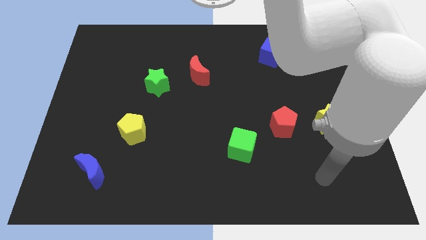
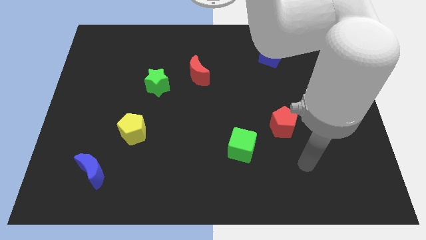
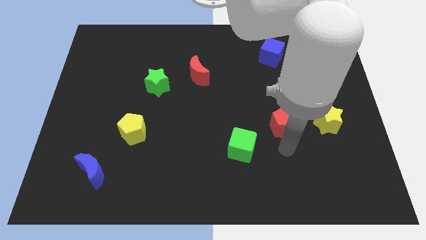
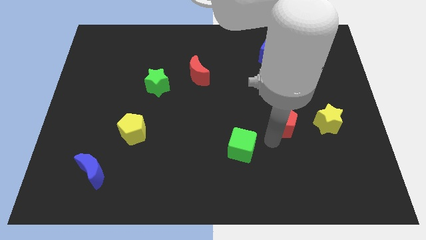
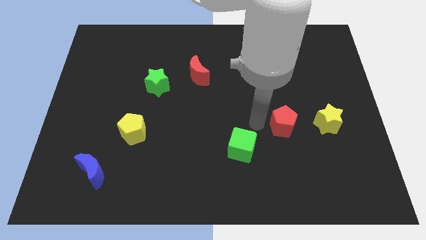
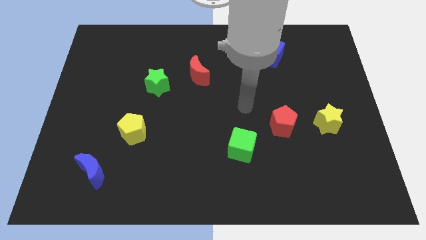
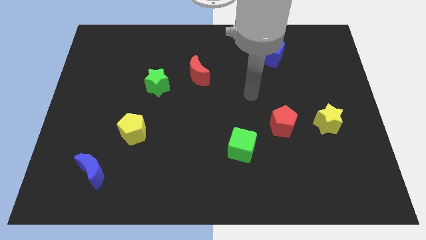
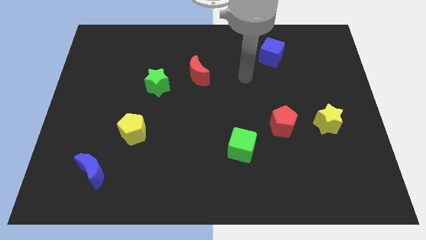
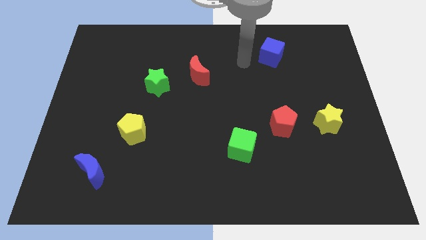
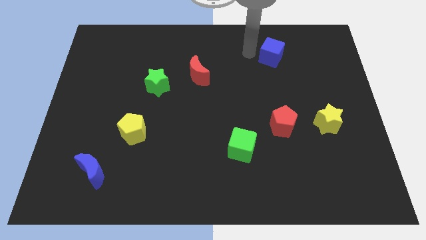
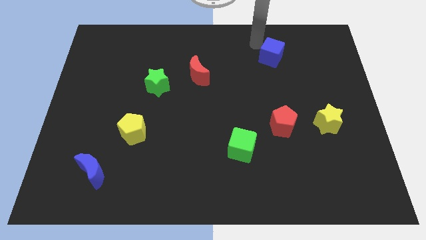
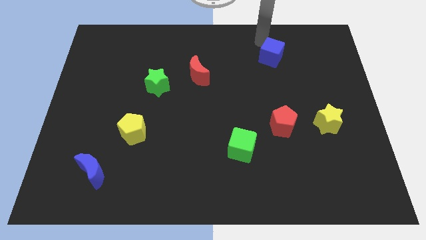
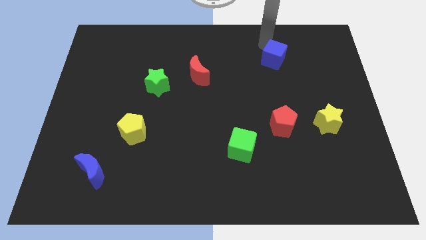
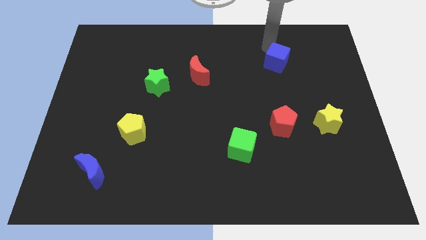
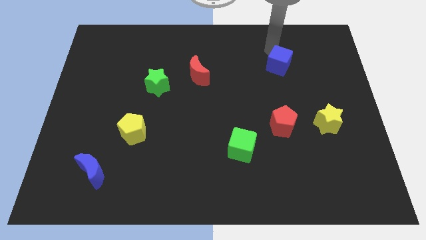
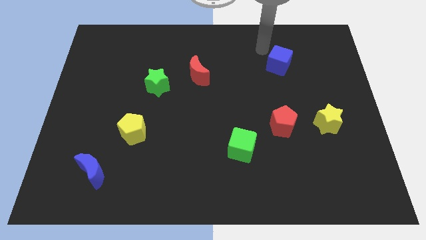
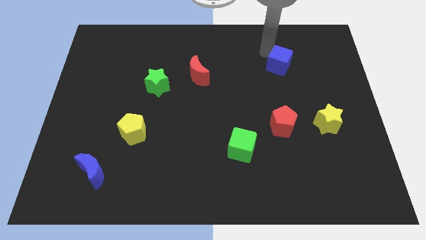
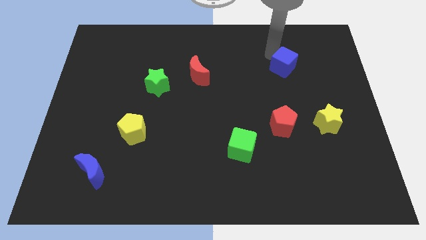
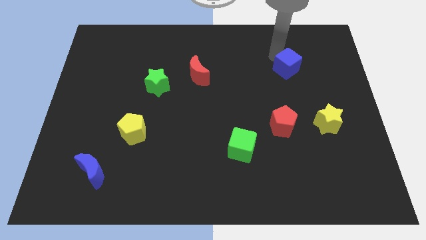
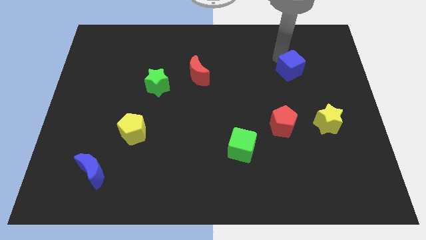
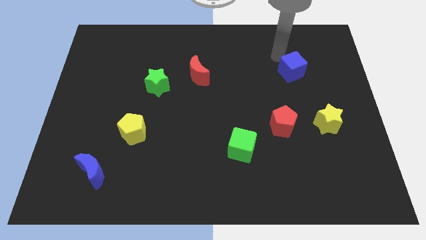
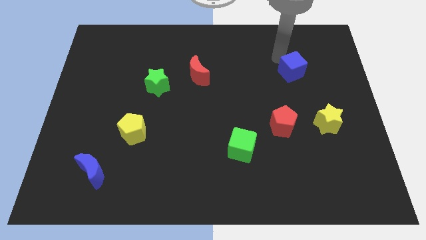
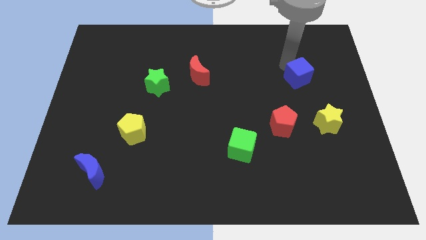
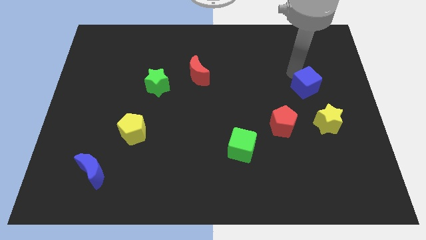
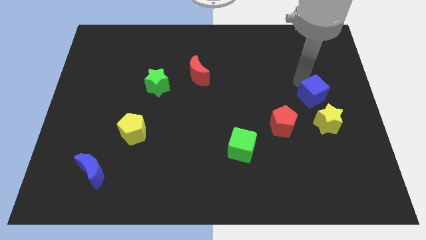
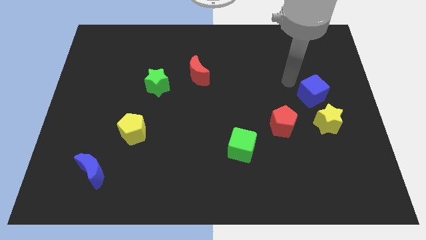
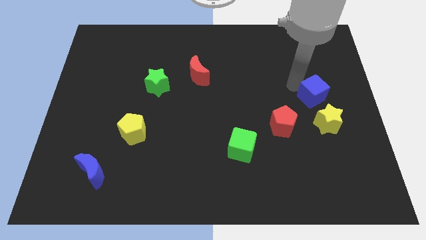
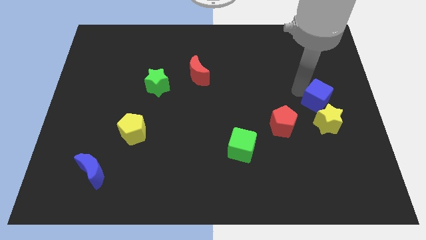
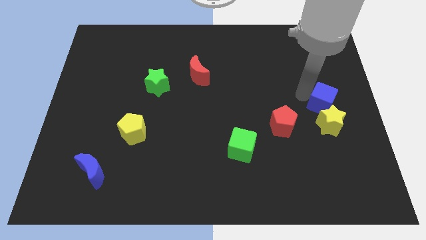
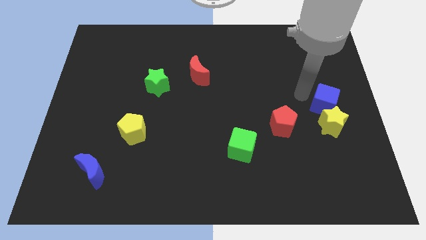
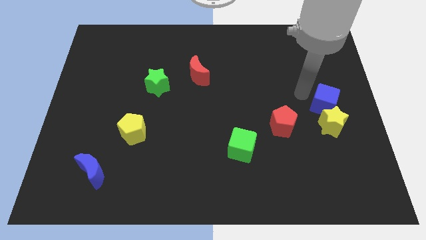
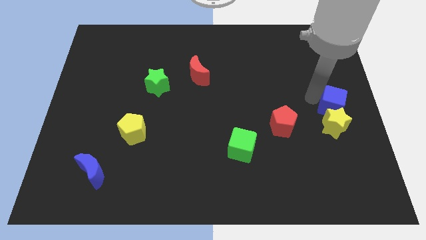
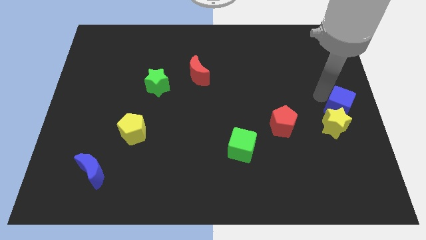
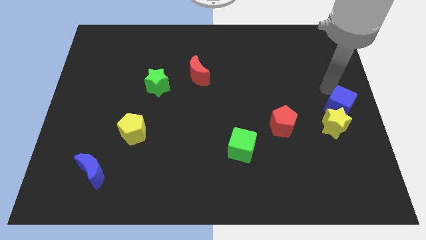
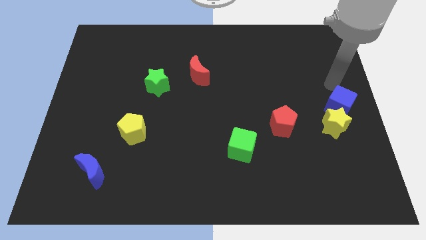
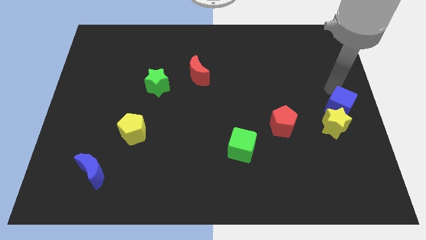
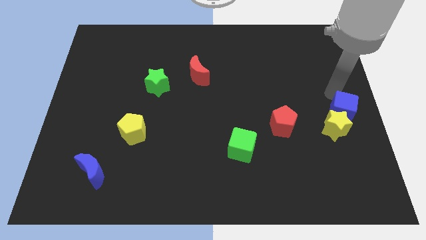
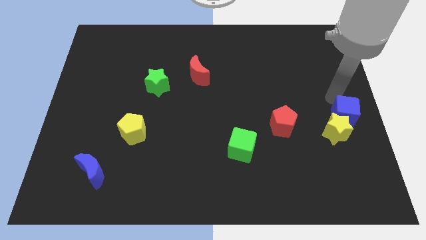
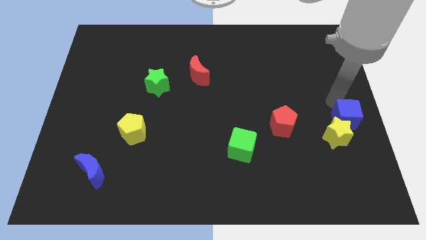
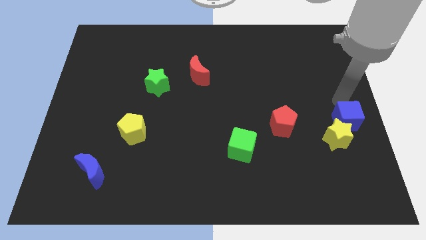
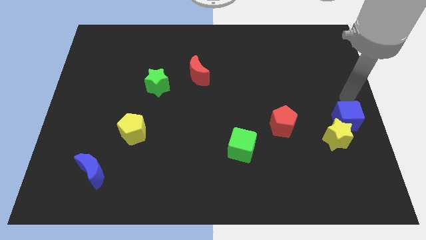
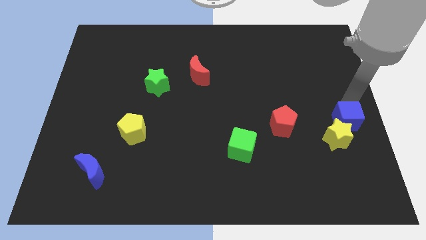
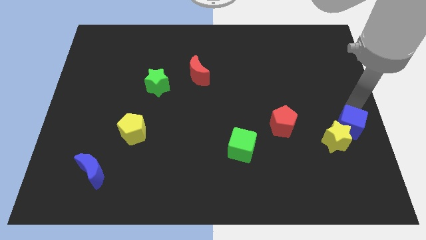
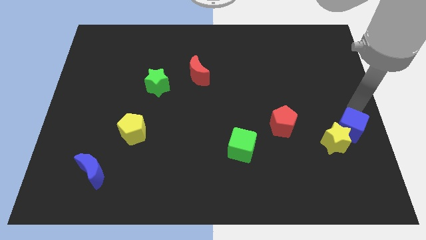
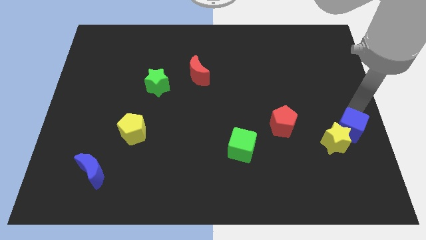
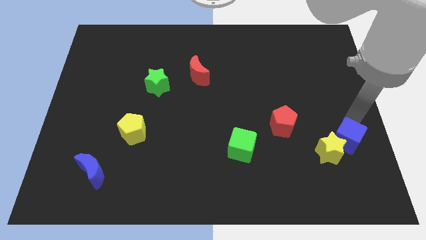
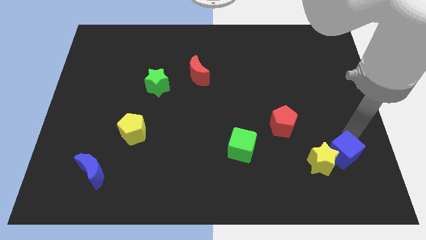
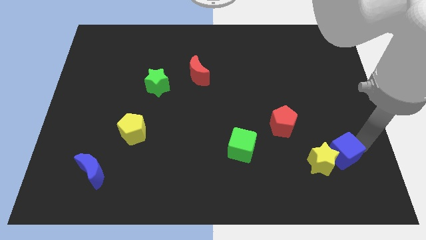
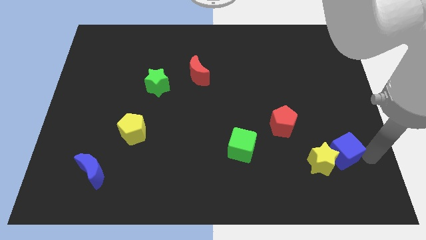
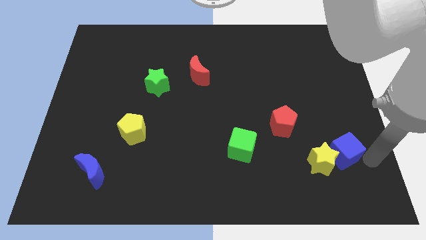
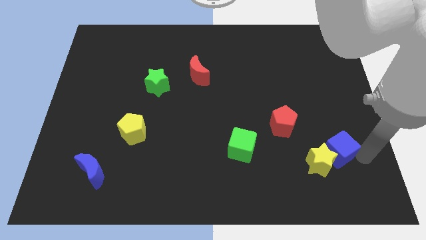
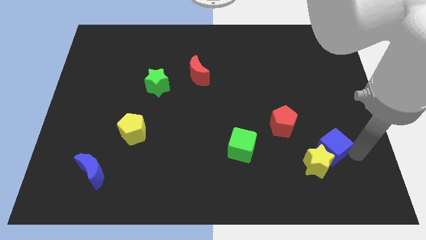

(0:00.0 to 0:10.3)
push the blue cube to the bottom right of the red pentagon

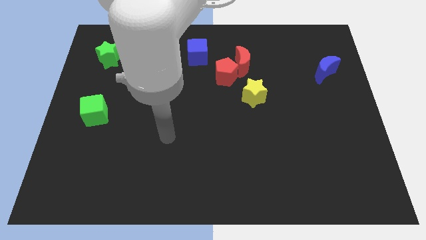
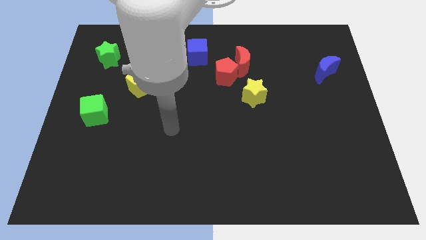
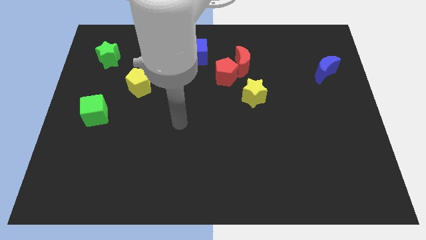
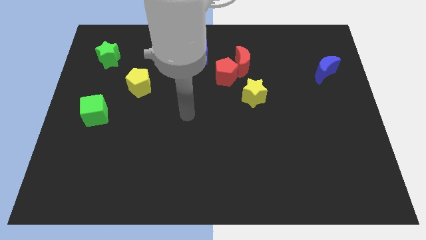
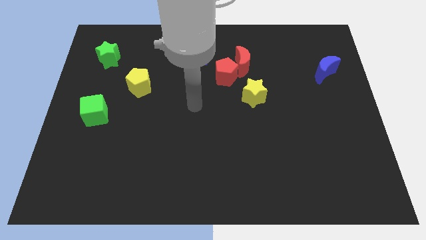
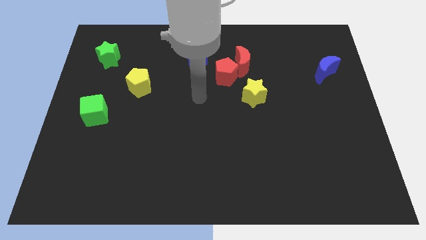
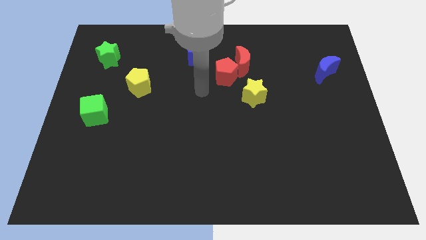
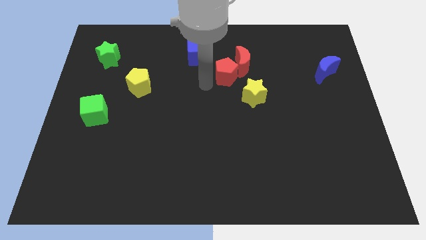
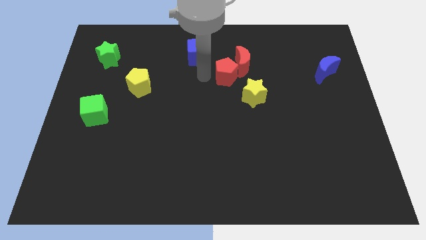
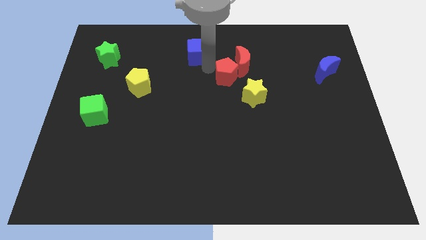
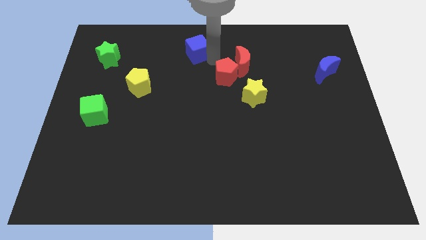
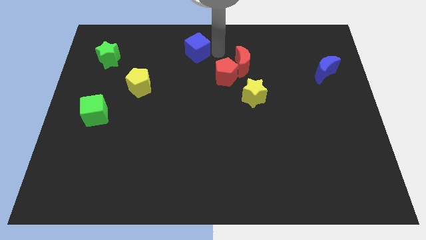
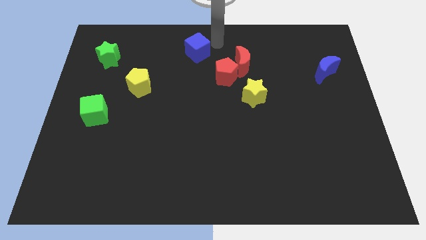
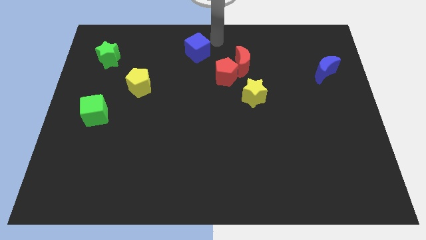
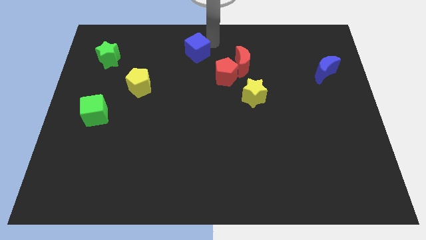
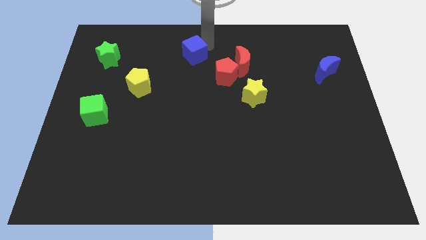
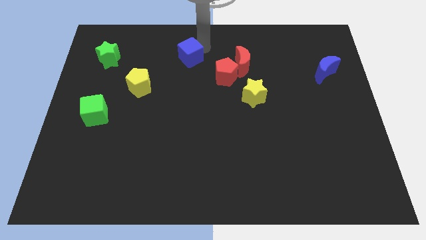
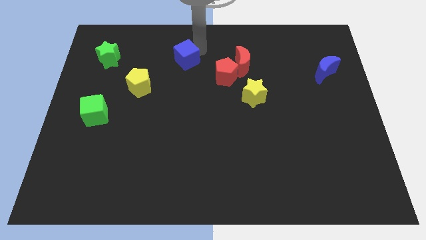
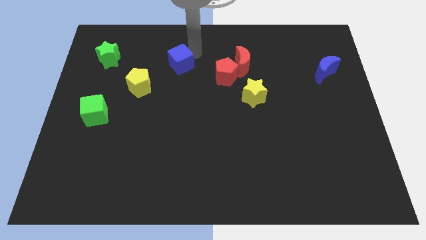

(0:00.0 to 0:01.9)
put the blue cube diagonally up and to the right of the yellow pentagon

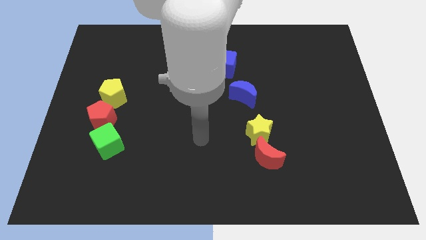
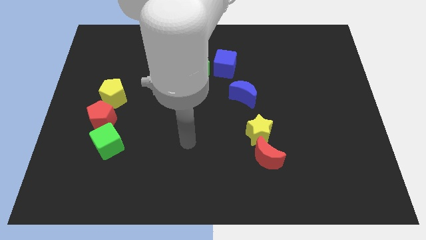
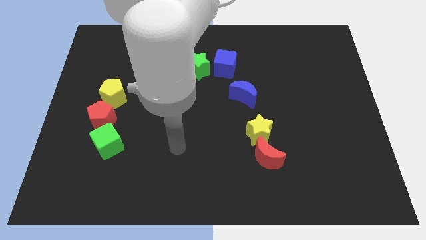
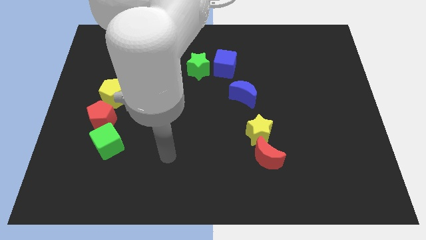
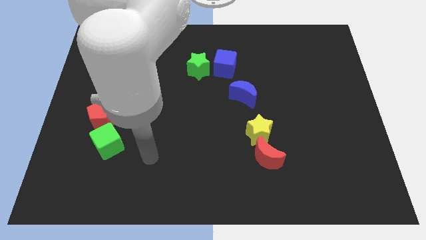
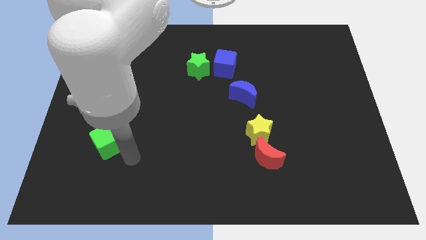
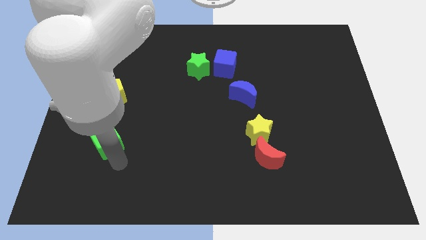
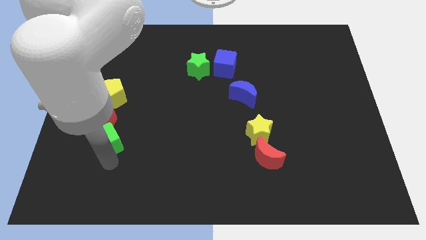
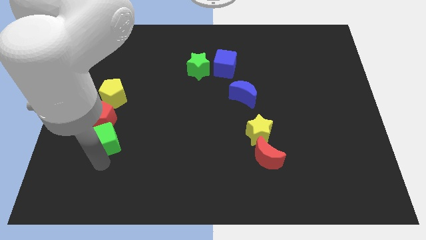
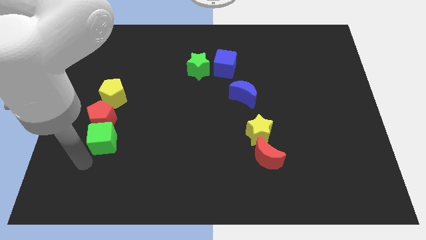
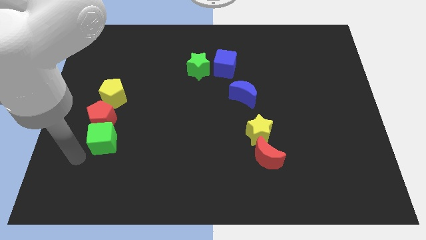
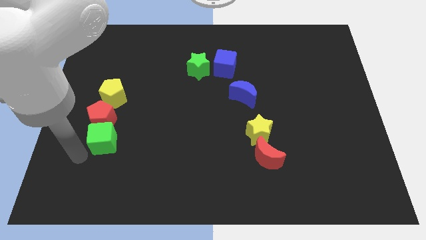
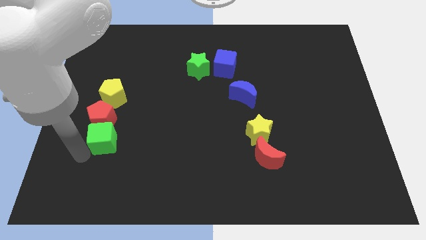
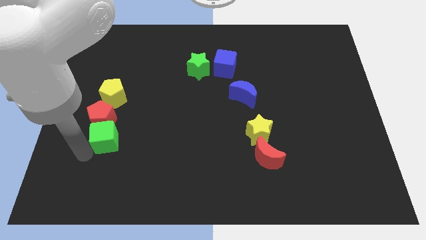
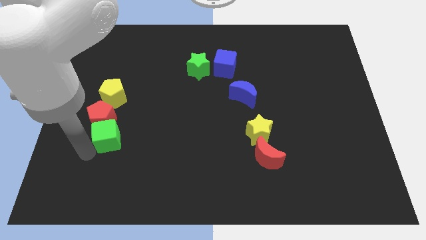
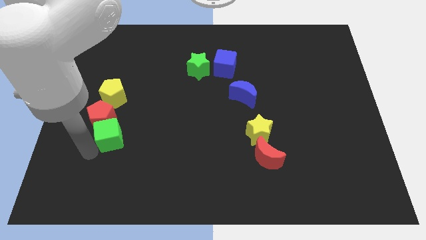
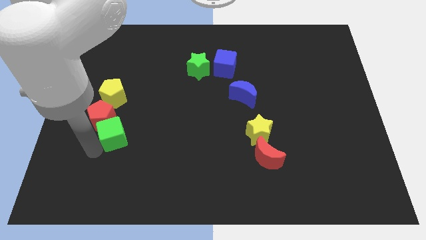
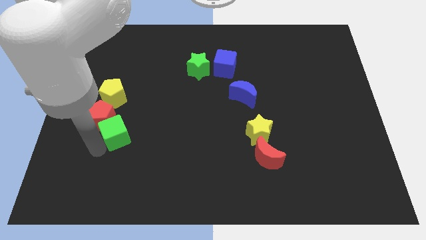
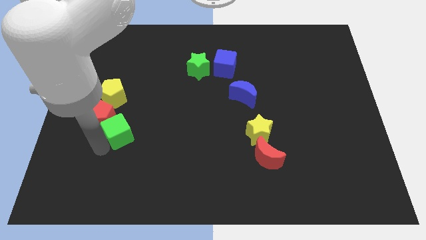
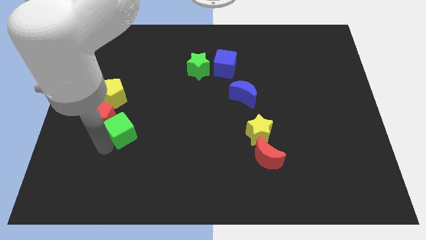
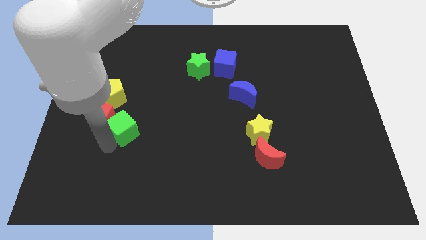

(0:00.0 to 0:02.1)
put the green cube to the bottom right side of the yellow pentagon
